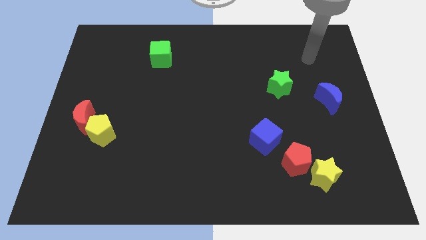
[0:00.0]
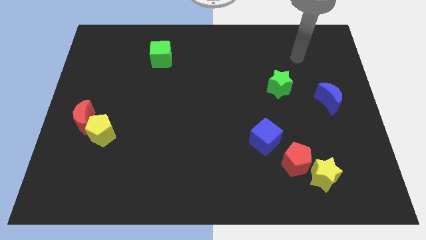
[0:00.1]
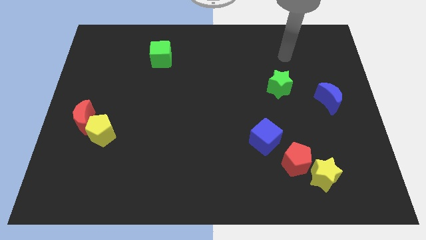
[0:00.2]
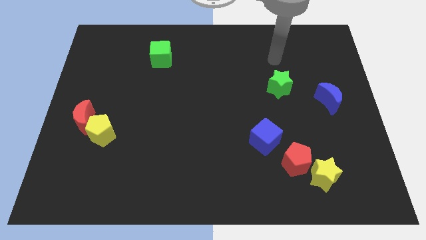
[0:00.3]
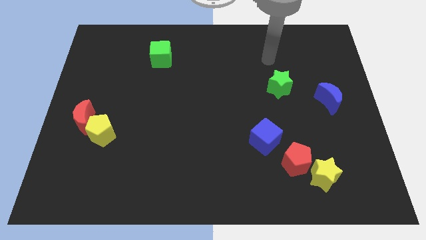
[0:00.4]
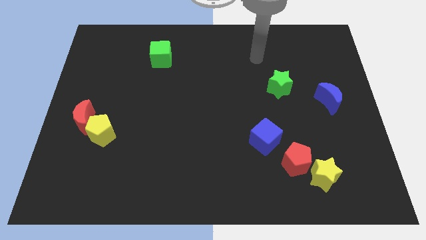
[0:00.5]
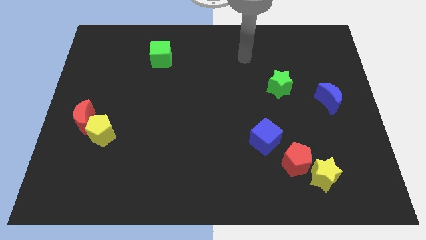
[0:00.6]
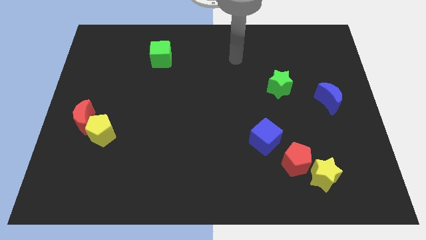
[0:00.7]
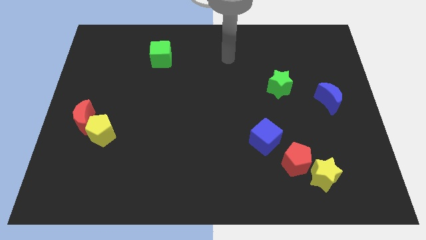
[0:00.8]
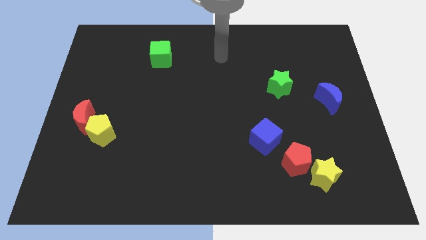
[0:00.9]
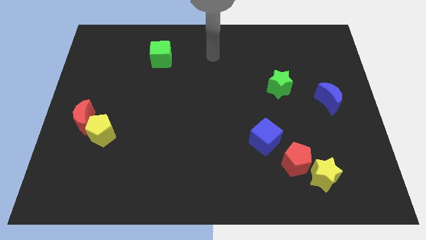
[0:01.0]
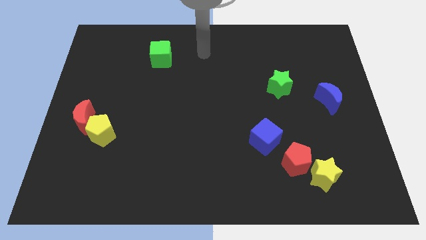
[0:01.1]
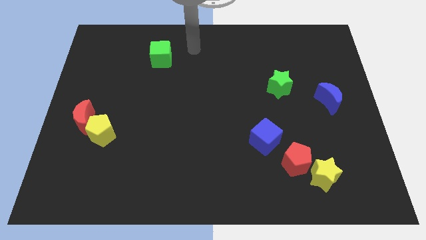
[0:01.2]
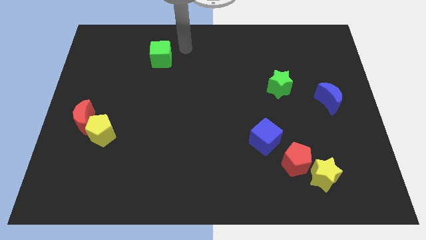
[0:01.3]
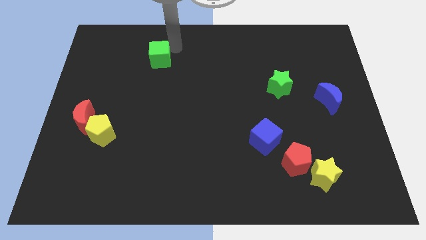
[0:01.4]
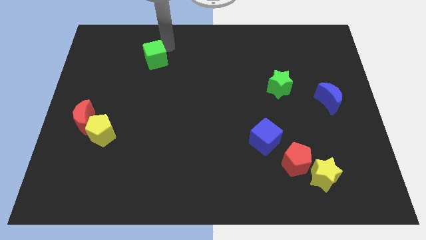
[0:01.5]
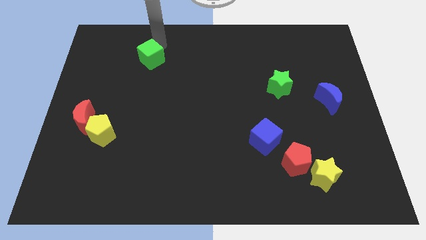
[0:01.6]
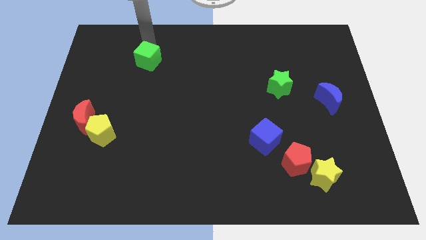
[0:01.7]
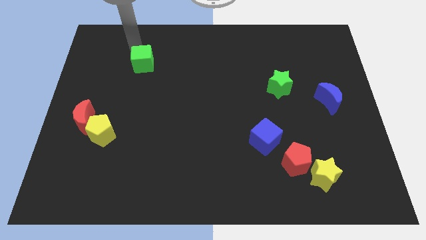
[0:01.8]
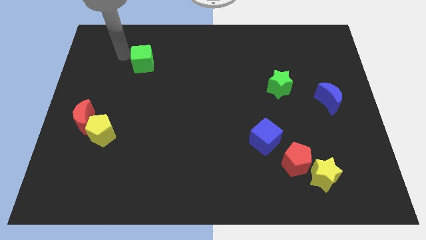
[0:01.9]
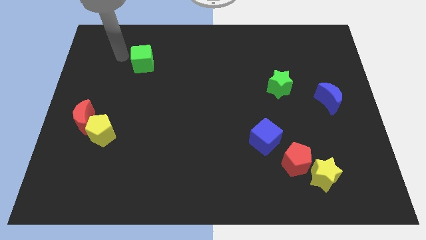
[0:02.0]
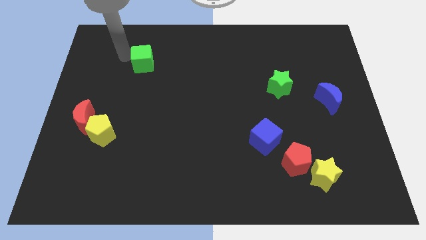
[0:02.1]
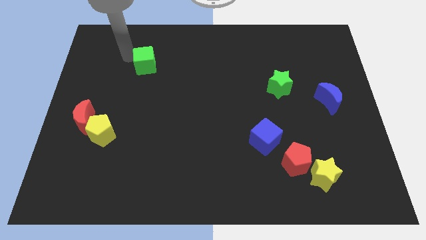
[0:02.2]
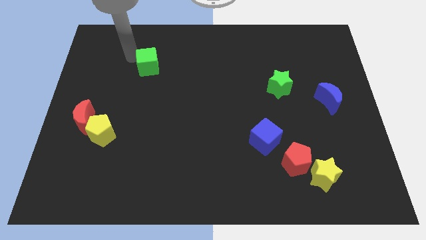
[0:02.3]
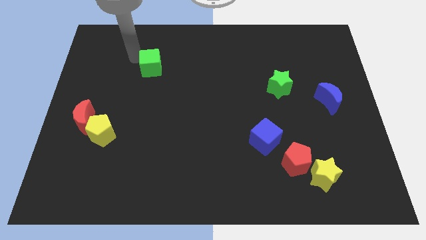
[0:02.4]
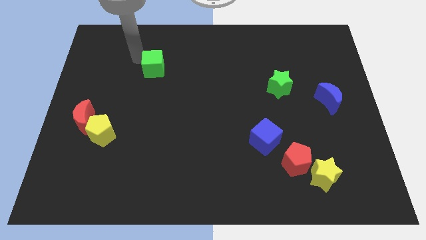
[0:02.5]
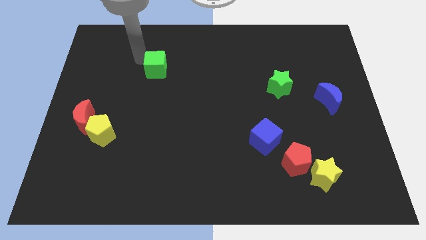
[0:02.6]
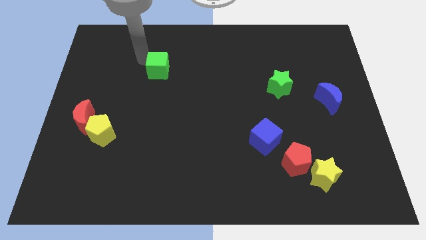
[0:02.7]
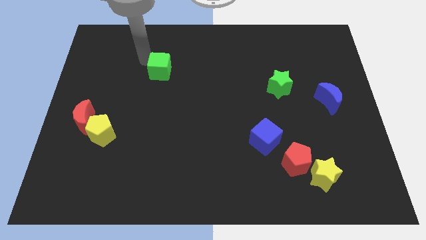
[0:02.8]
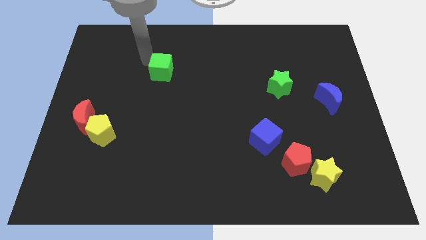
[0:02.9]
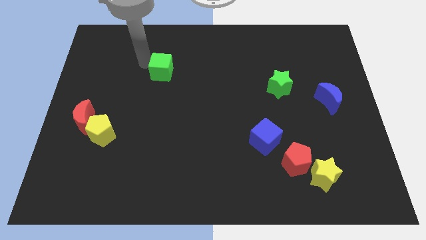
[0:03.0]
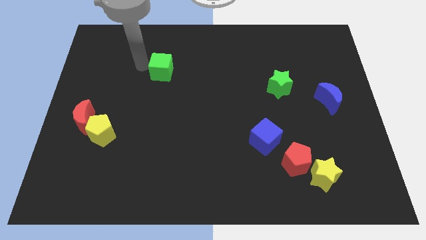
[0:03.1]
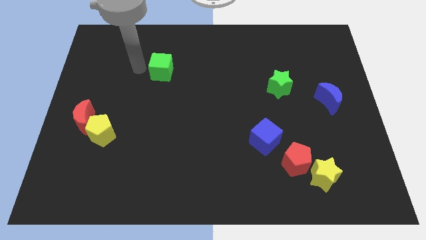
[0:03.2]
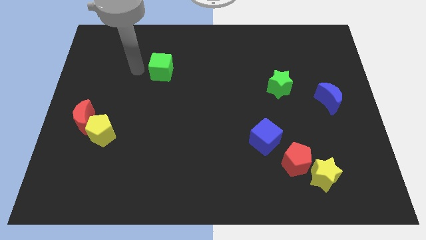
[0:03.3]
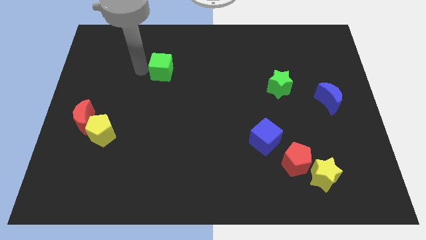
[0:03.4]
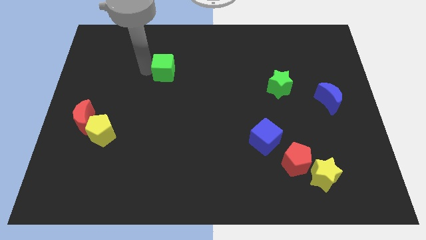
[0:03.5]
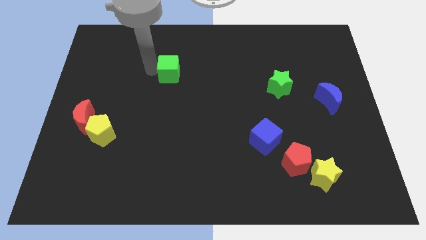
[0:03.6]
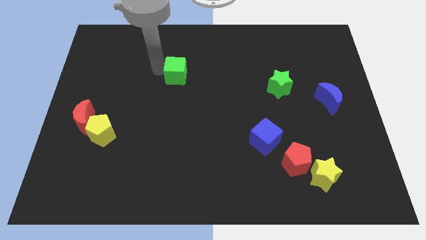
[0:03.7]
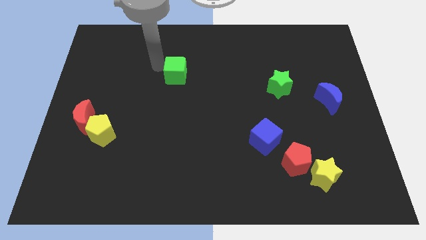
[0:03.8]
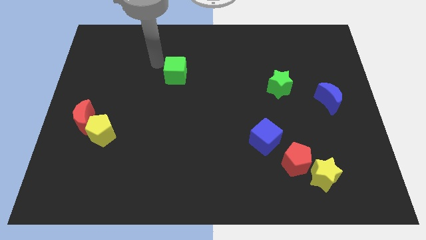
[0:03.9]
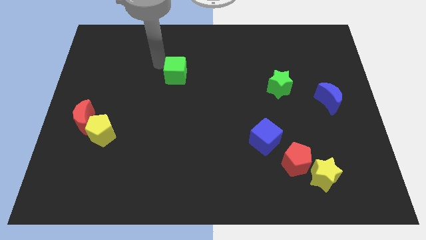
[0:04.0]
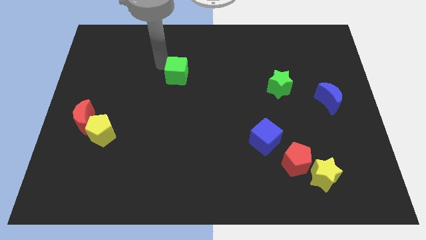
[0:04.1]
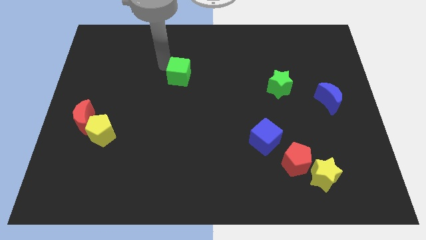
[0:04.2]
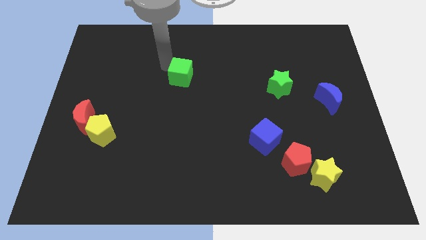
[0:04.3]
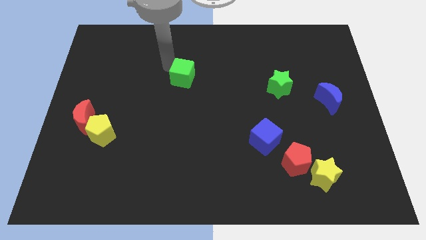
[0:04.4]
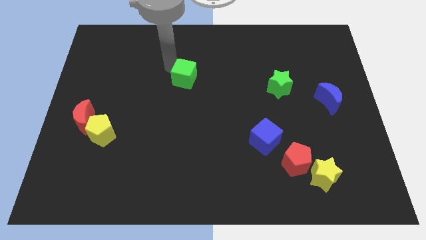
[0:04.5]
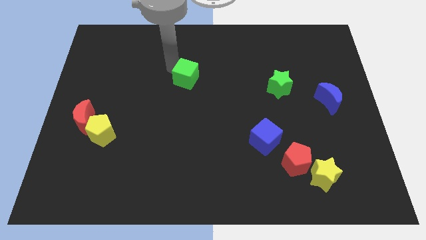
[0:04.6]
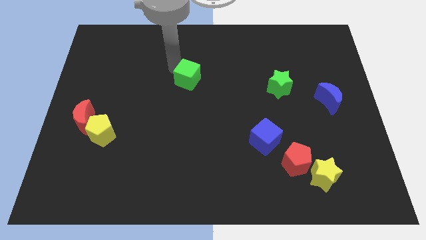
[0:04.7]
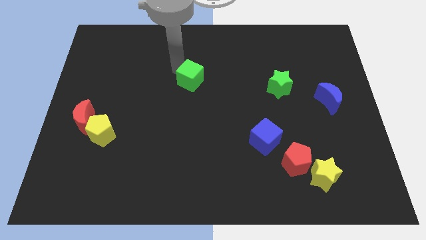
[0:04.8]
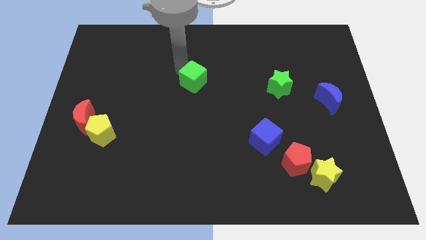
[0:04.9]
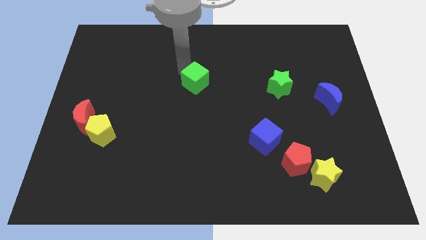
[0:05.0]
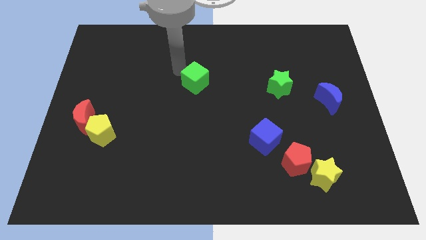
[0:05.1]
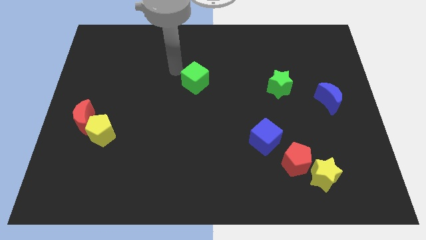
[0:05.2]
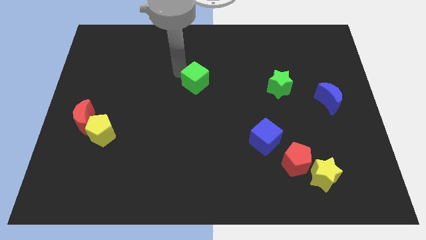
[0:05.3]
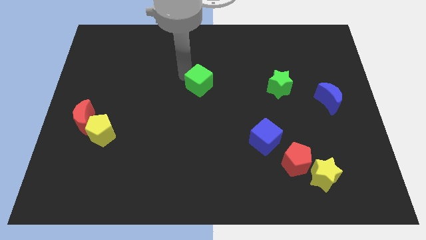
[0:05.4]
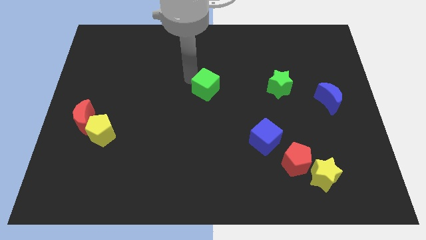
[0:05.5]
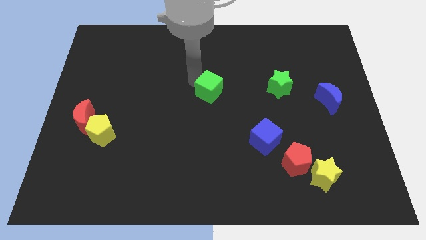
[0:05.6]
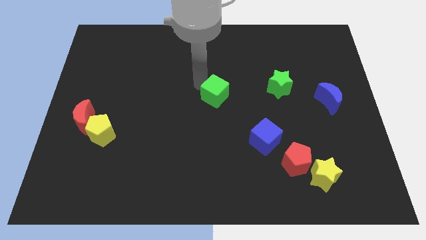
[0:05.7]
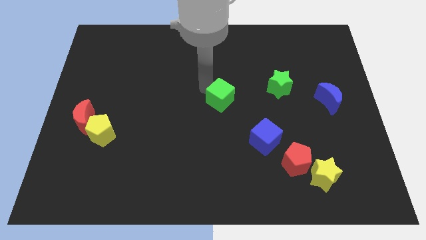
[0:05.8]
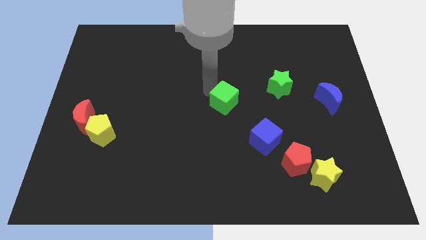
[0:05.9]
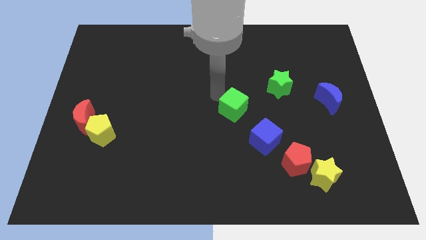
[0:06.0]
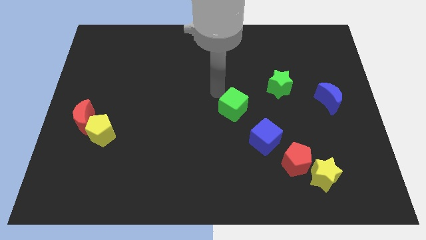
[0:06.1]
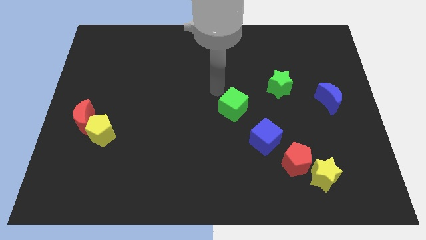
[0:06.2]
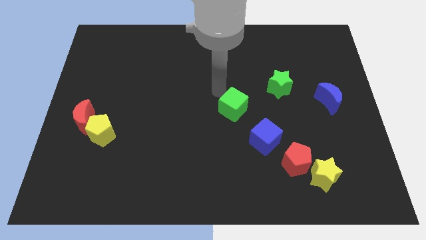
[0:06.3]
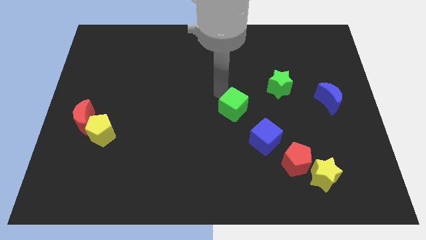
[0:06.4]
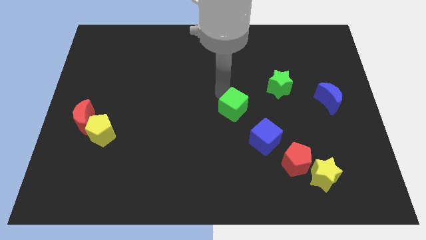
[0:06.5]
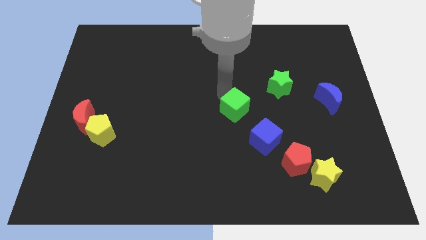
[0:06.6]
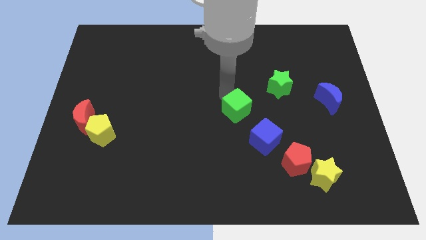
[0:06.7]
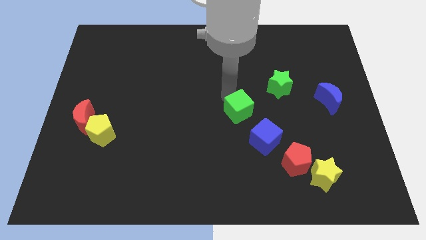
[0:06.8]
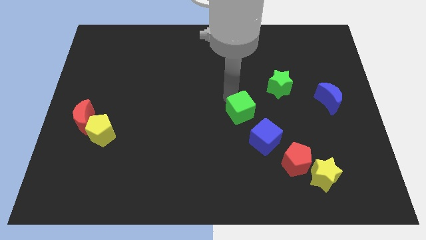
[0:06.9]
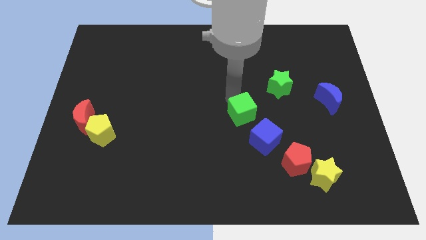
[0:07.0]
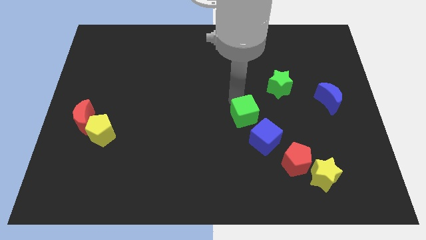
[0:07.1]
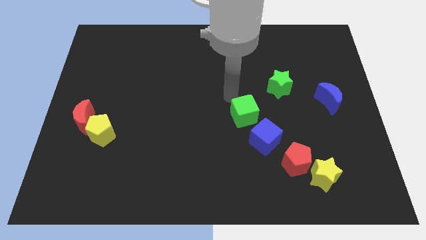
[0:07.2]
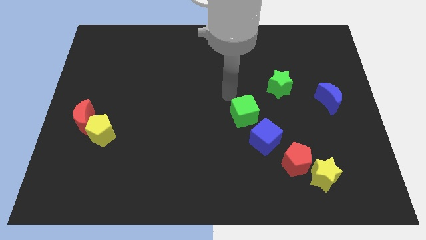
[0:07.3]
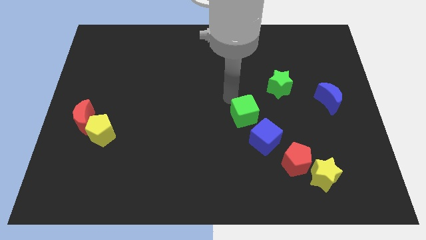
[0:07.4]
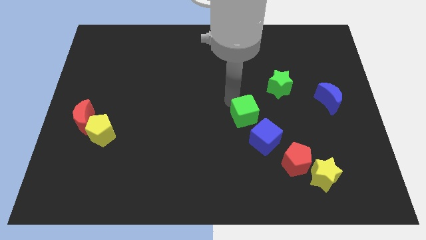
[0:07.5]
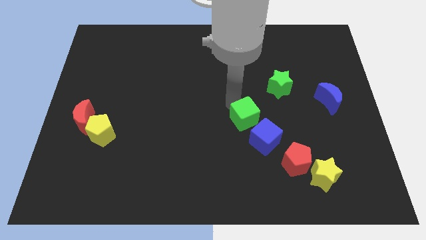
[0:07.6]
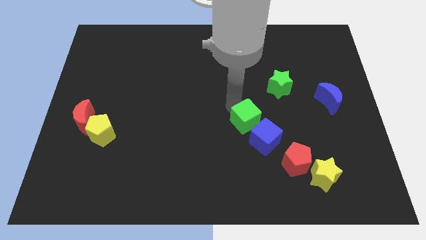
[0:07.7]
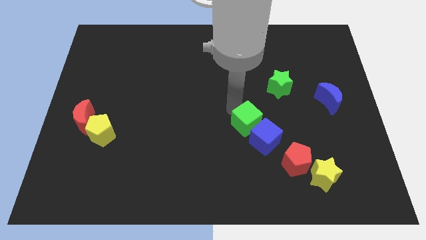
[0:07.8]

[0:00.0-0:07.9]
push the green cube towards the blue cube

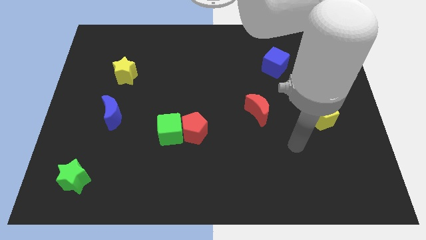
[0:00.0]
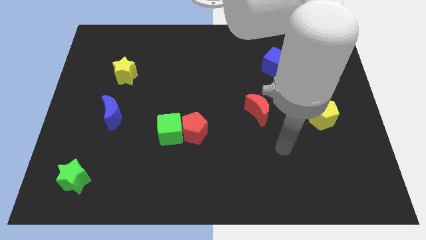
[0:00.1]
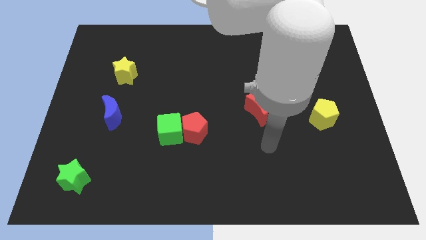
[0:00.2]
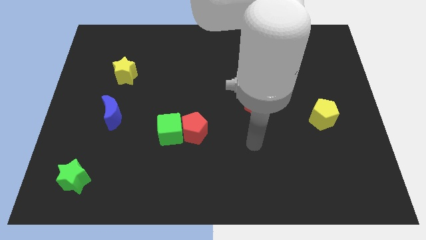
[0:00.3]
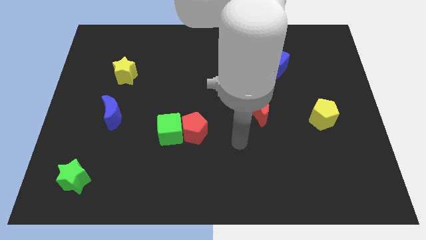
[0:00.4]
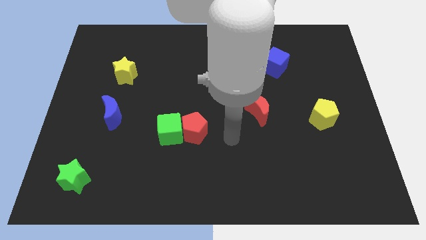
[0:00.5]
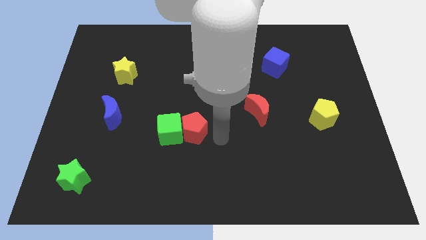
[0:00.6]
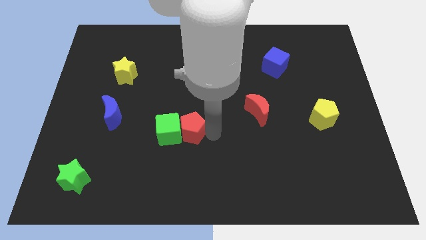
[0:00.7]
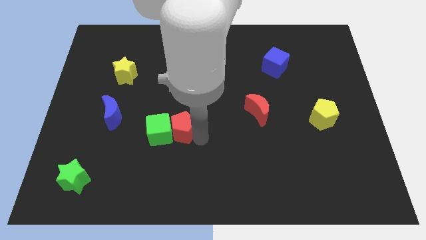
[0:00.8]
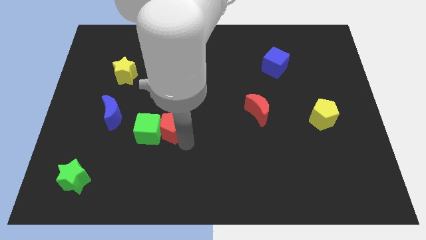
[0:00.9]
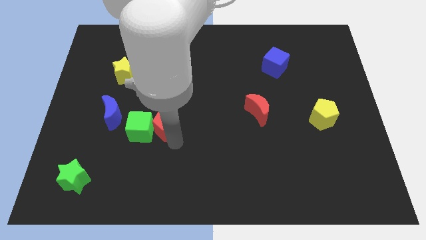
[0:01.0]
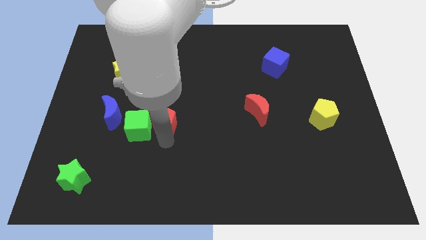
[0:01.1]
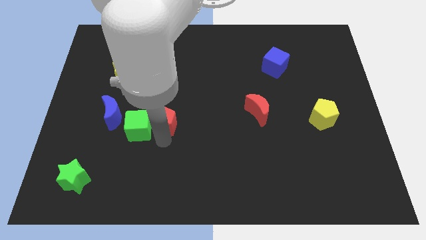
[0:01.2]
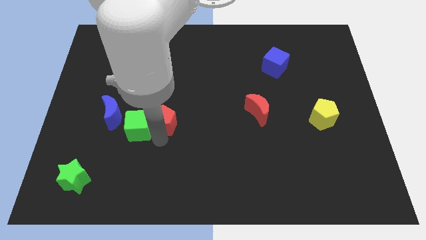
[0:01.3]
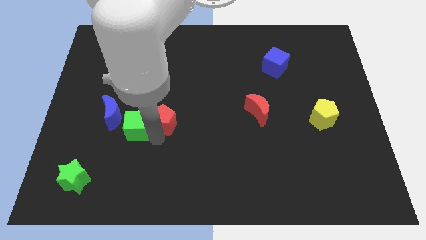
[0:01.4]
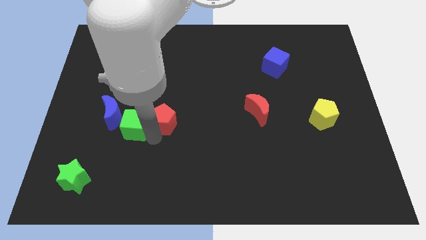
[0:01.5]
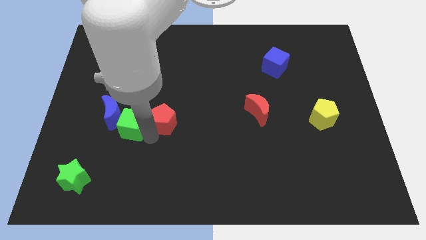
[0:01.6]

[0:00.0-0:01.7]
put the green cube towards the blue moon
